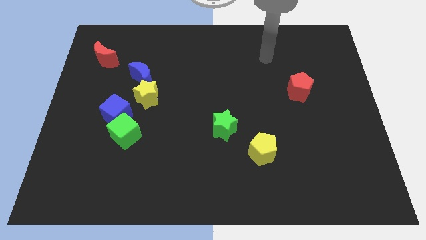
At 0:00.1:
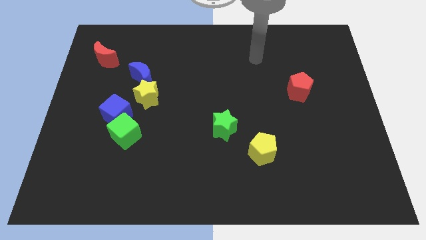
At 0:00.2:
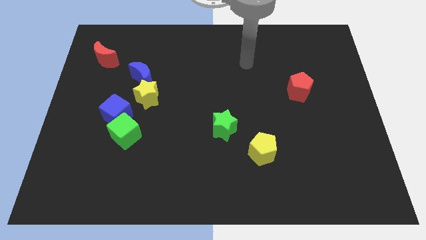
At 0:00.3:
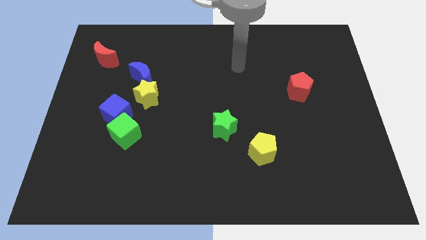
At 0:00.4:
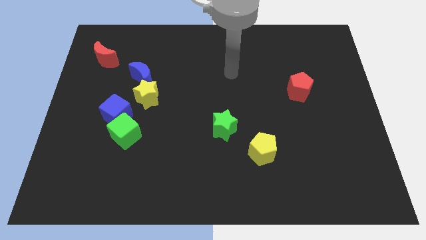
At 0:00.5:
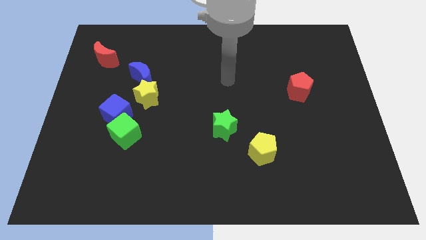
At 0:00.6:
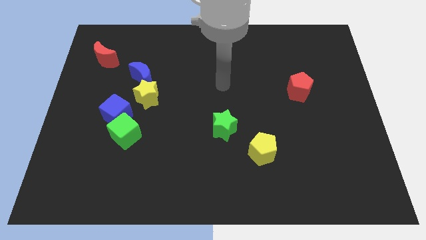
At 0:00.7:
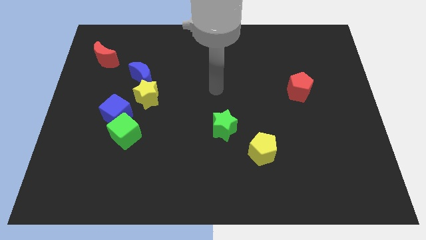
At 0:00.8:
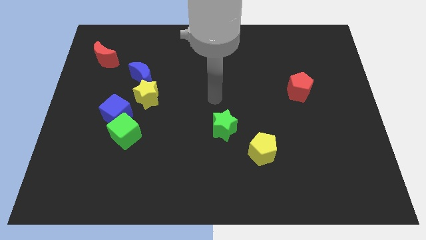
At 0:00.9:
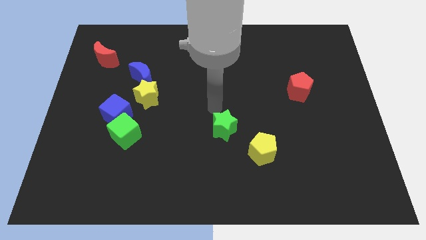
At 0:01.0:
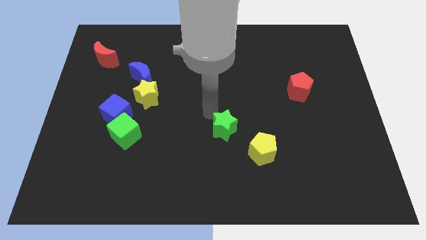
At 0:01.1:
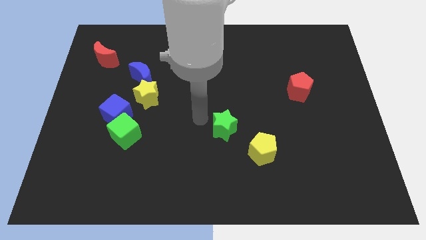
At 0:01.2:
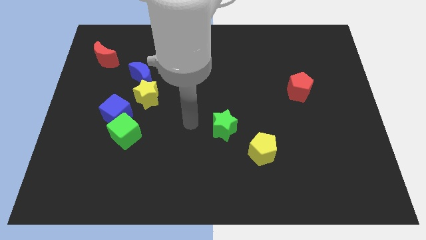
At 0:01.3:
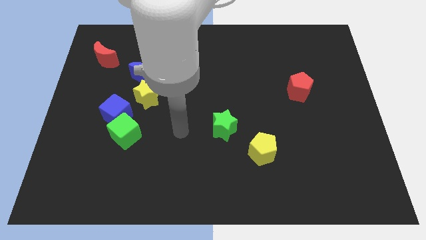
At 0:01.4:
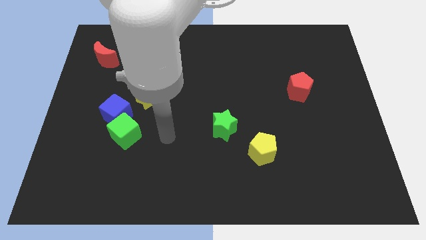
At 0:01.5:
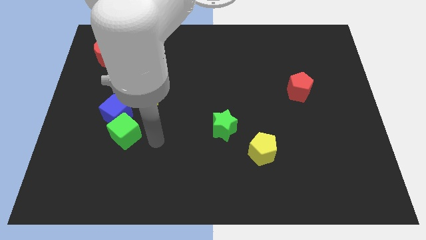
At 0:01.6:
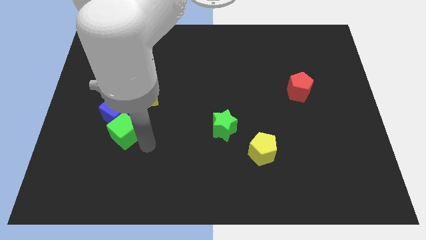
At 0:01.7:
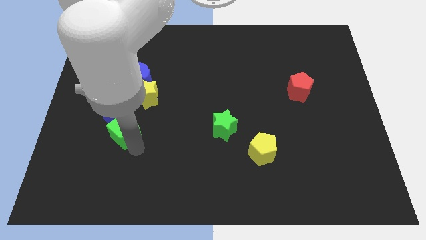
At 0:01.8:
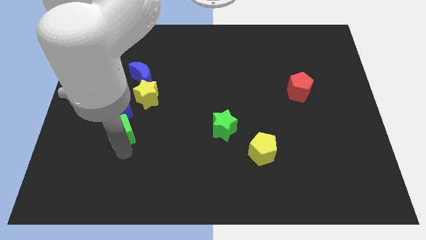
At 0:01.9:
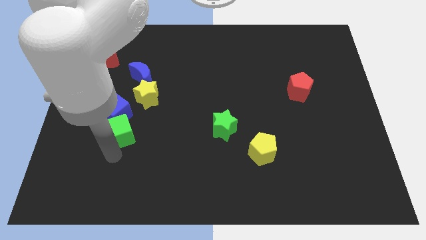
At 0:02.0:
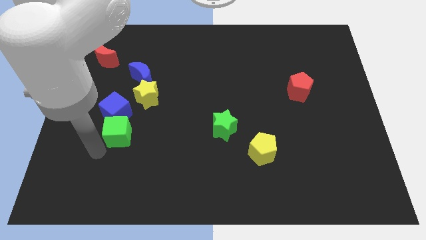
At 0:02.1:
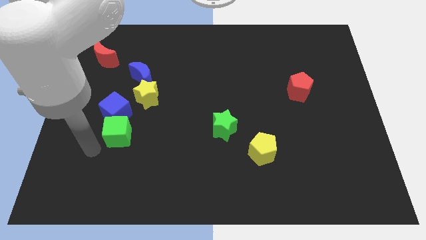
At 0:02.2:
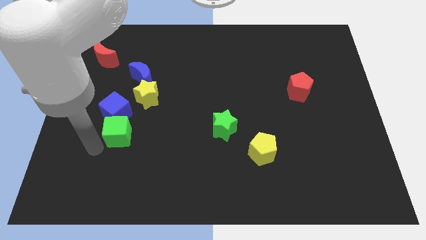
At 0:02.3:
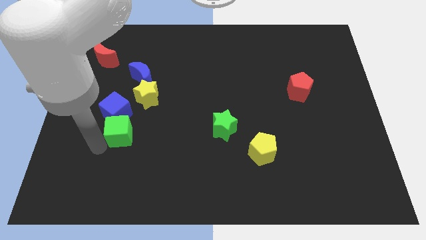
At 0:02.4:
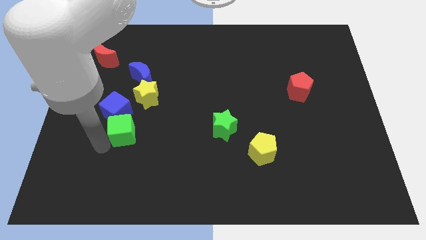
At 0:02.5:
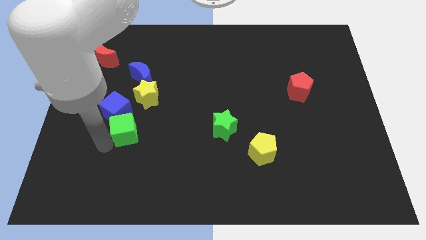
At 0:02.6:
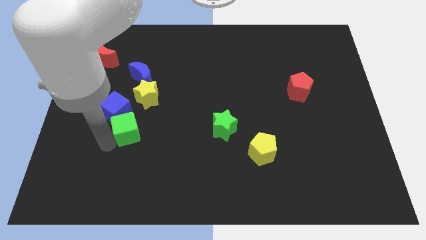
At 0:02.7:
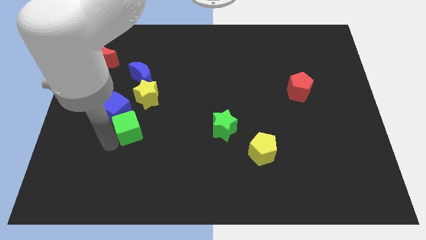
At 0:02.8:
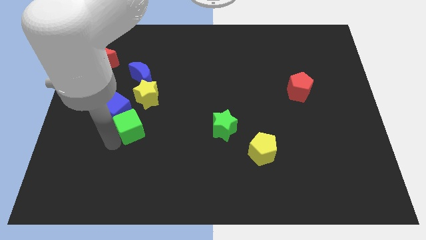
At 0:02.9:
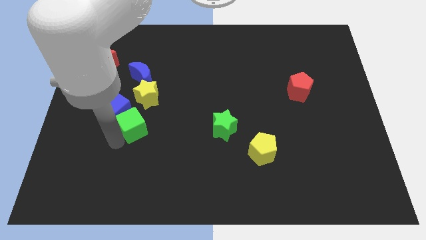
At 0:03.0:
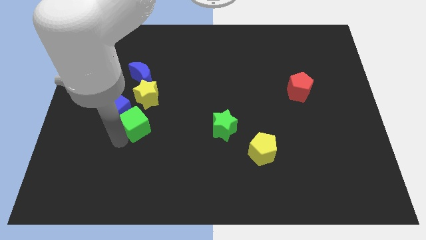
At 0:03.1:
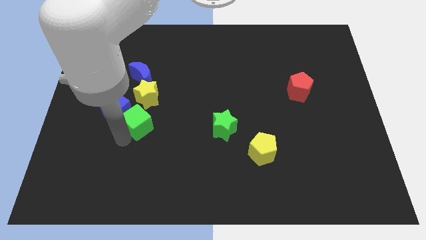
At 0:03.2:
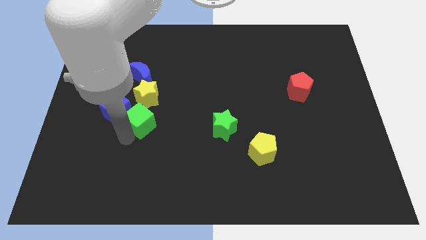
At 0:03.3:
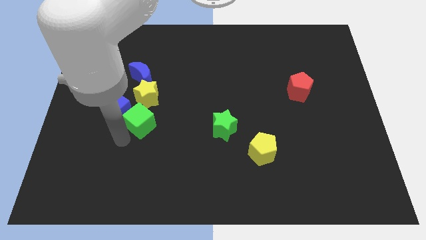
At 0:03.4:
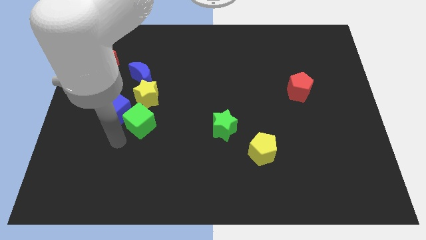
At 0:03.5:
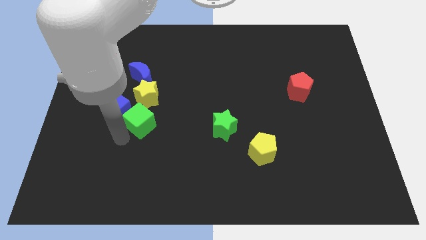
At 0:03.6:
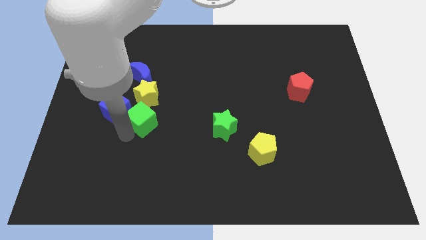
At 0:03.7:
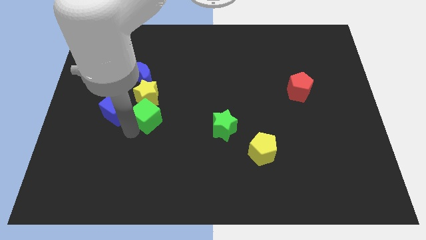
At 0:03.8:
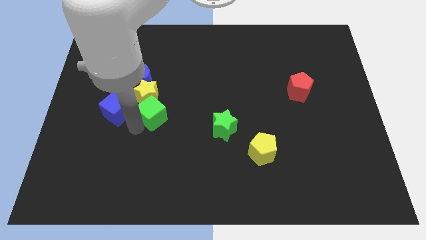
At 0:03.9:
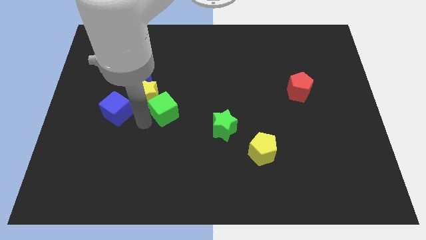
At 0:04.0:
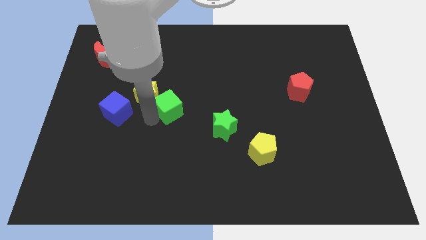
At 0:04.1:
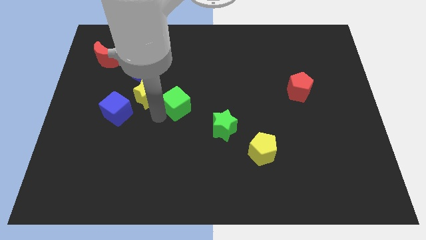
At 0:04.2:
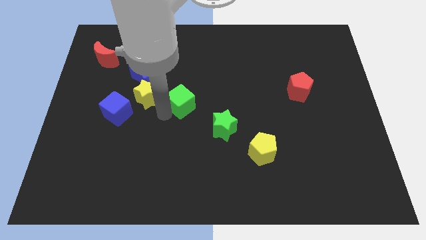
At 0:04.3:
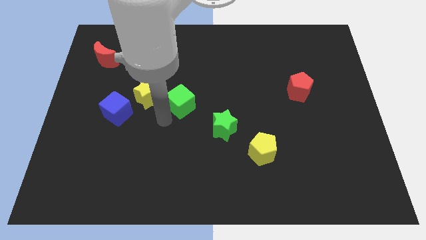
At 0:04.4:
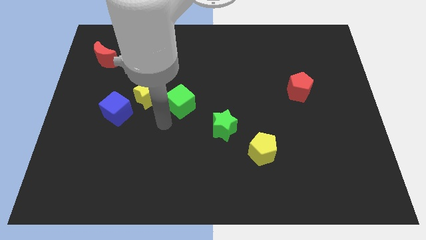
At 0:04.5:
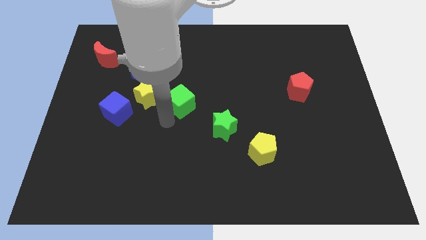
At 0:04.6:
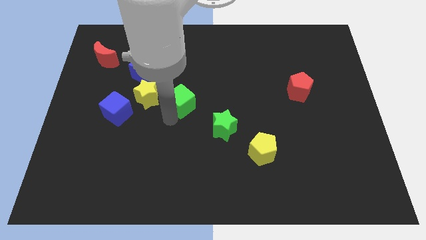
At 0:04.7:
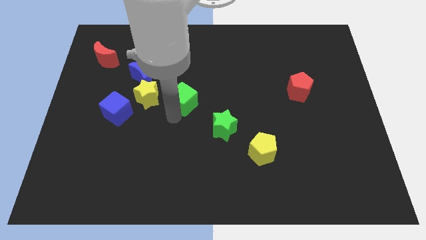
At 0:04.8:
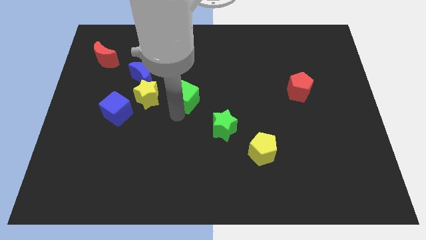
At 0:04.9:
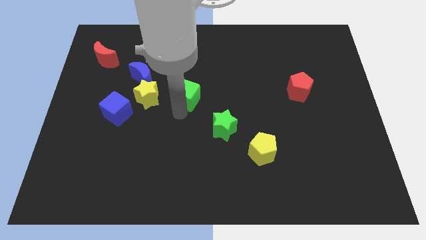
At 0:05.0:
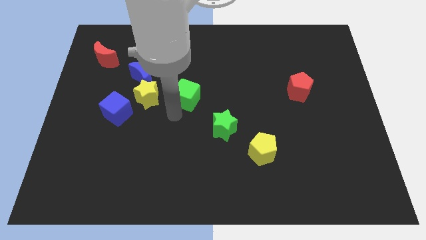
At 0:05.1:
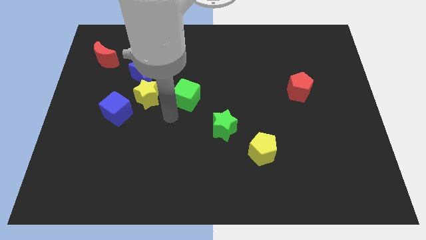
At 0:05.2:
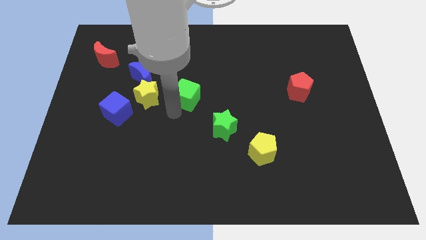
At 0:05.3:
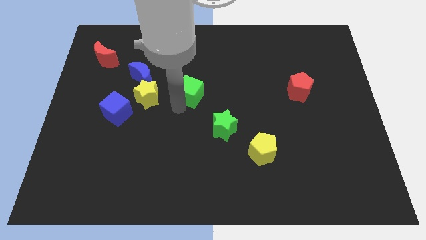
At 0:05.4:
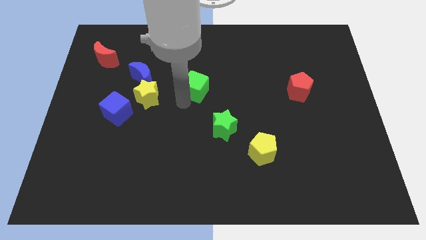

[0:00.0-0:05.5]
push the green cube upwards and right diagonally

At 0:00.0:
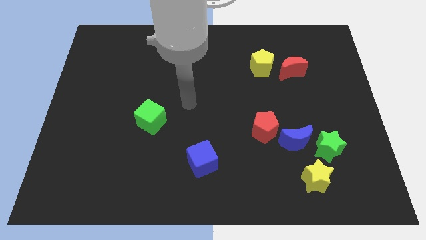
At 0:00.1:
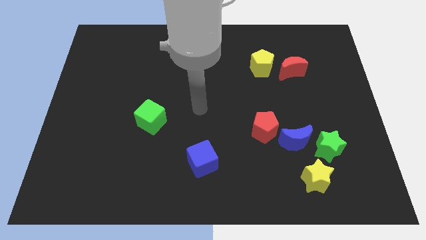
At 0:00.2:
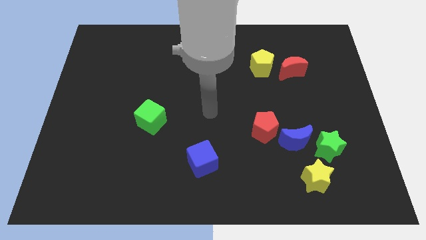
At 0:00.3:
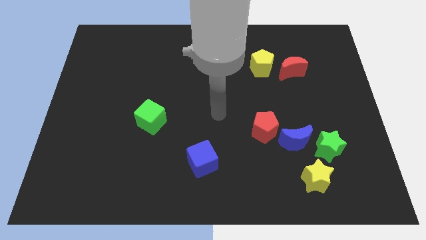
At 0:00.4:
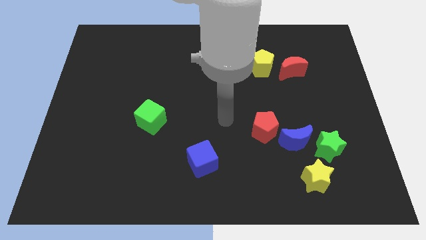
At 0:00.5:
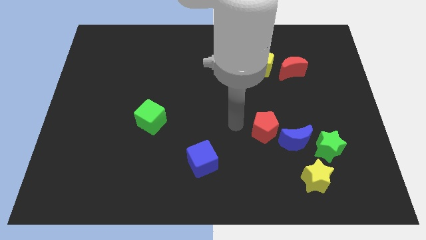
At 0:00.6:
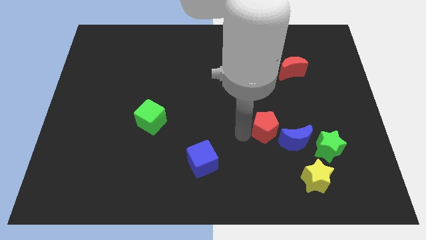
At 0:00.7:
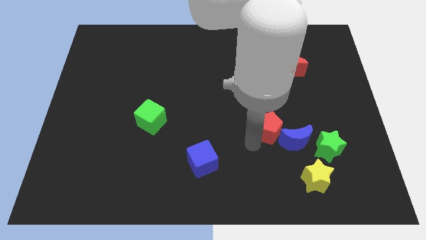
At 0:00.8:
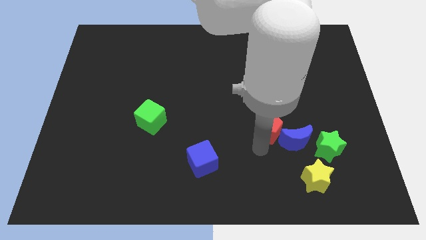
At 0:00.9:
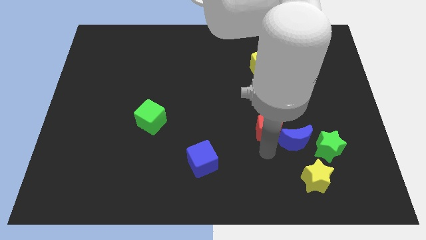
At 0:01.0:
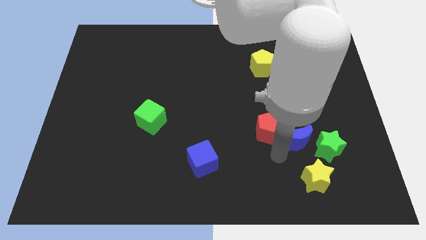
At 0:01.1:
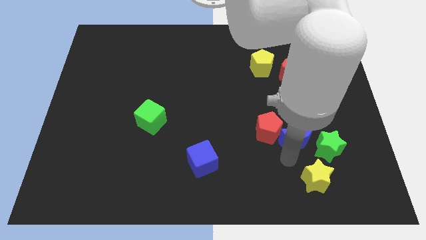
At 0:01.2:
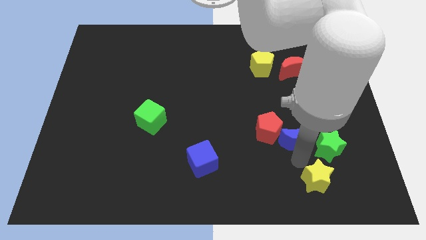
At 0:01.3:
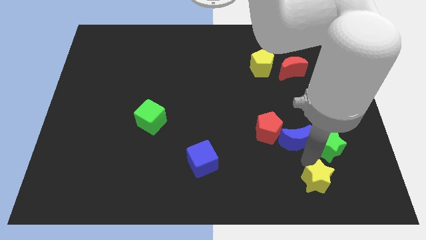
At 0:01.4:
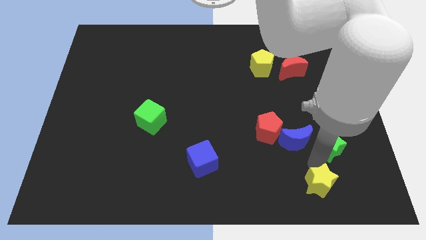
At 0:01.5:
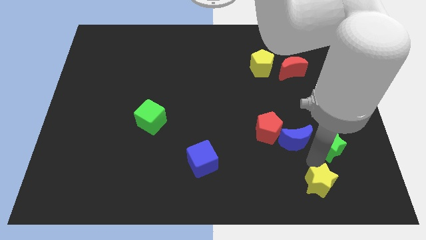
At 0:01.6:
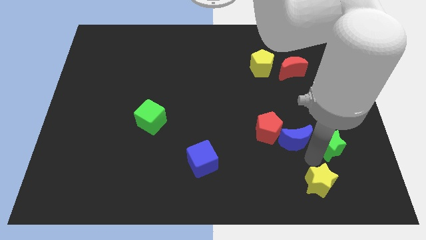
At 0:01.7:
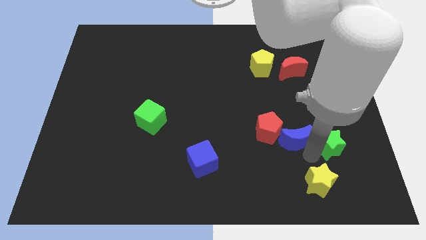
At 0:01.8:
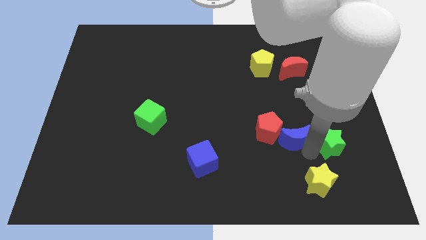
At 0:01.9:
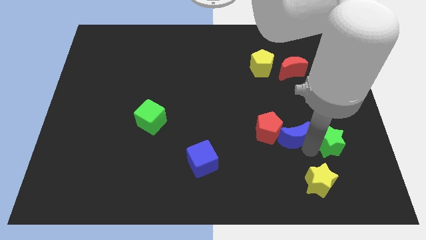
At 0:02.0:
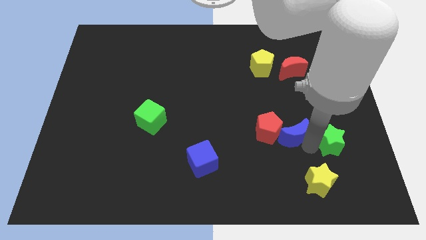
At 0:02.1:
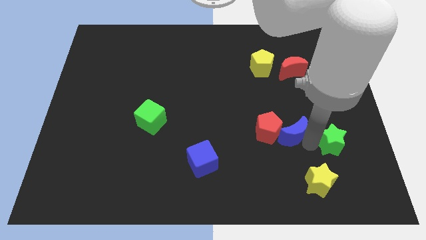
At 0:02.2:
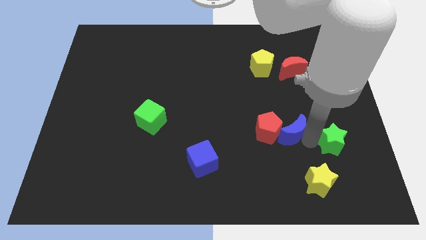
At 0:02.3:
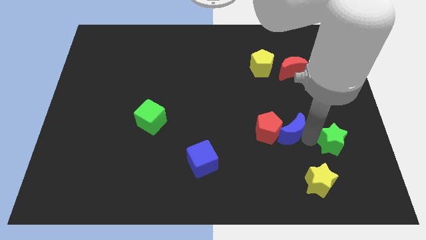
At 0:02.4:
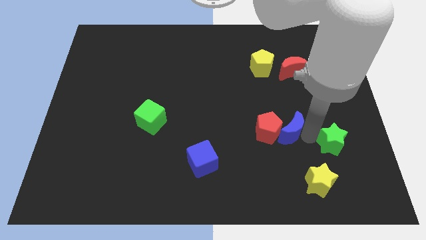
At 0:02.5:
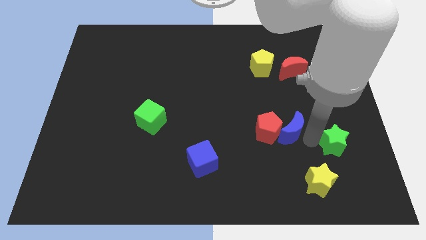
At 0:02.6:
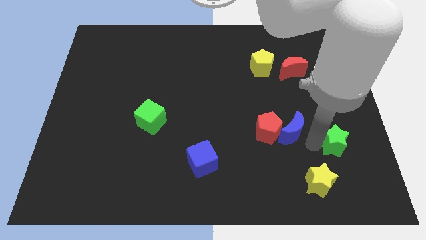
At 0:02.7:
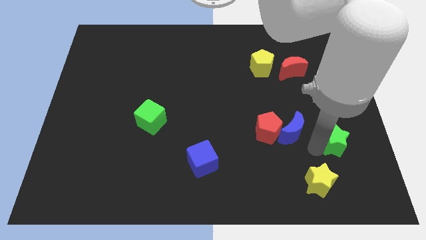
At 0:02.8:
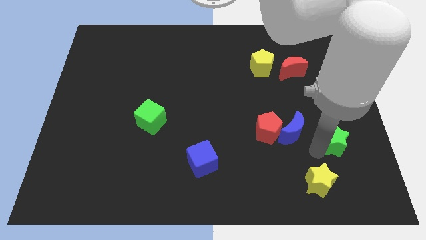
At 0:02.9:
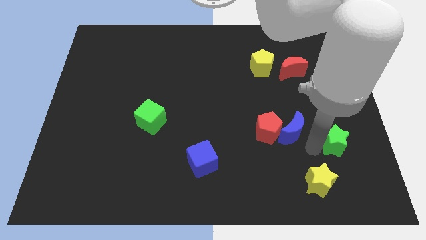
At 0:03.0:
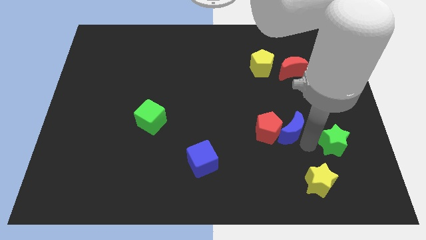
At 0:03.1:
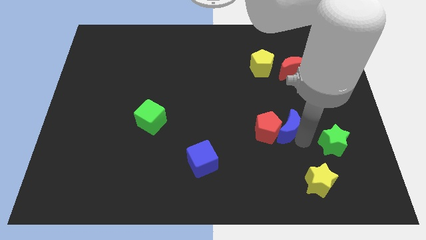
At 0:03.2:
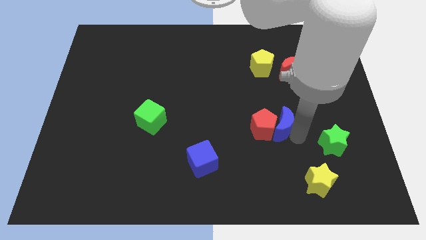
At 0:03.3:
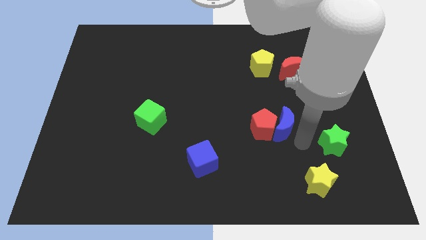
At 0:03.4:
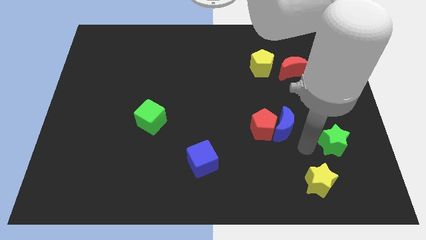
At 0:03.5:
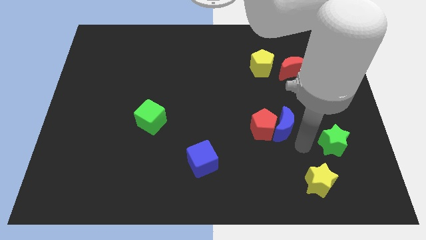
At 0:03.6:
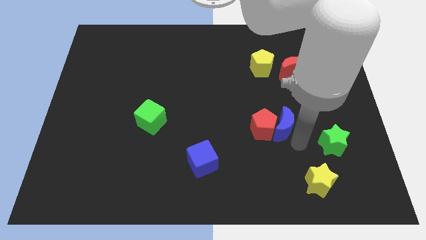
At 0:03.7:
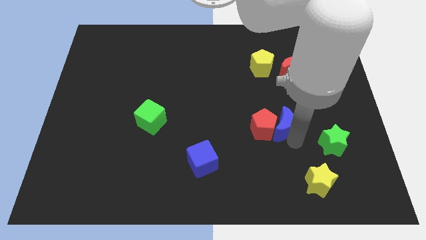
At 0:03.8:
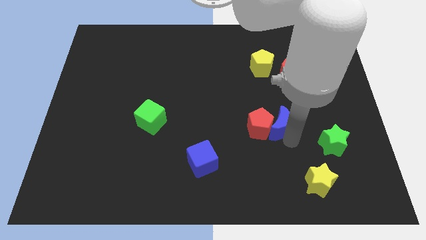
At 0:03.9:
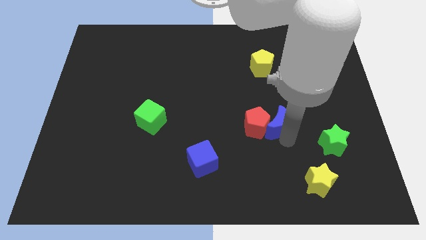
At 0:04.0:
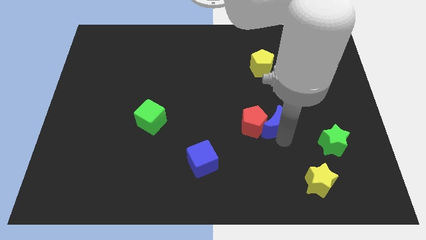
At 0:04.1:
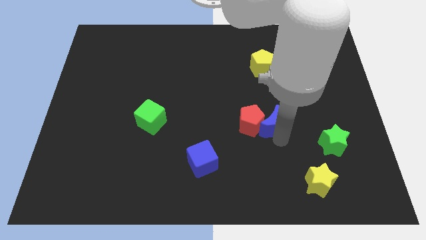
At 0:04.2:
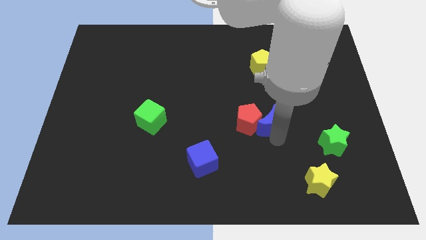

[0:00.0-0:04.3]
slide the blue moon up and left diagonally slightly
